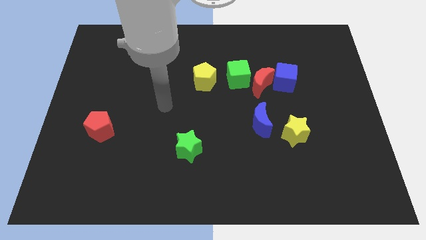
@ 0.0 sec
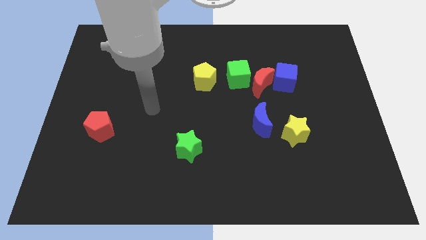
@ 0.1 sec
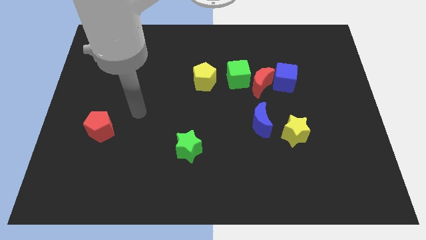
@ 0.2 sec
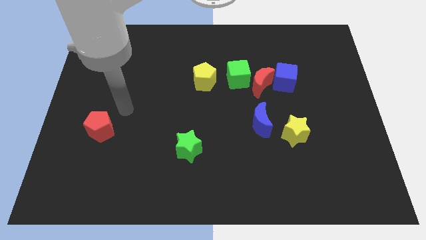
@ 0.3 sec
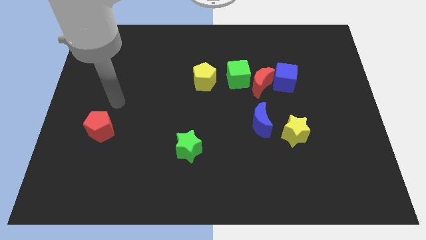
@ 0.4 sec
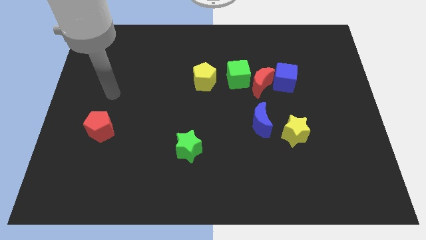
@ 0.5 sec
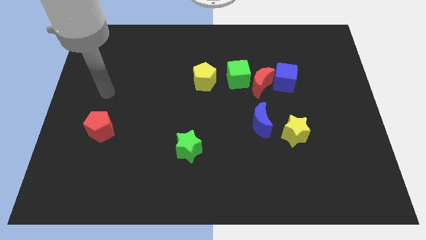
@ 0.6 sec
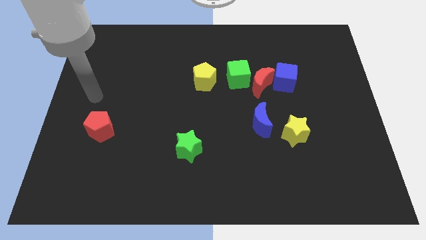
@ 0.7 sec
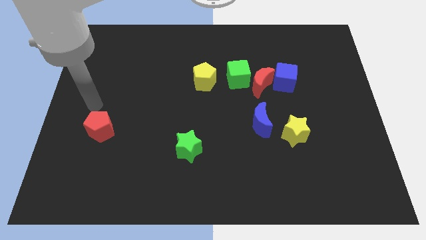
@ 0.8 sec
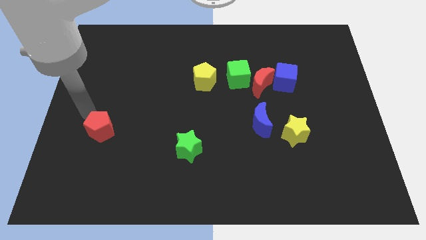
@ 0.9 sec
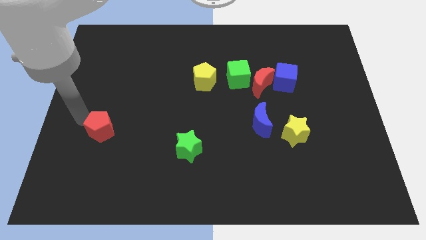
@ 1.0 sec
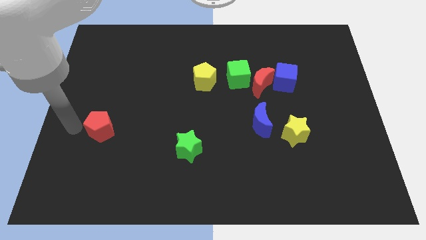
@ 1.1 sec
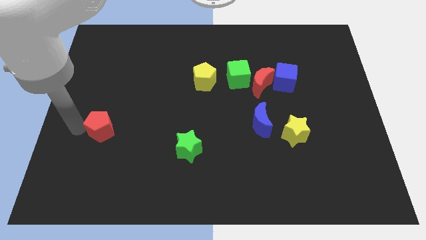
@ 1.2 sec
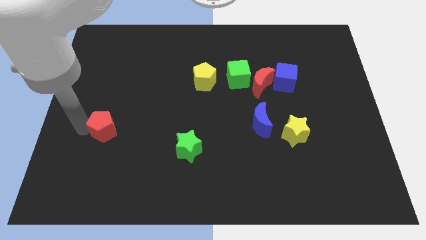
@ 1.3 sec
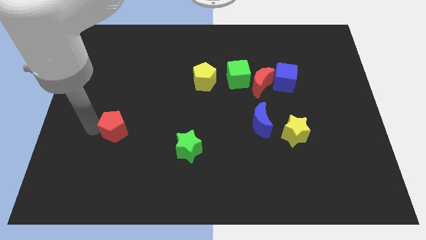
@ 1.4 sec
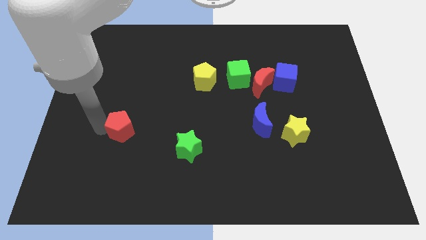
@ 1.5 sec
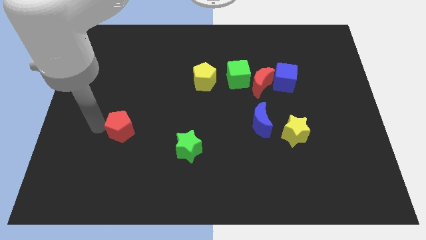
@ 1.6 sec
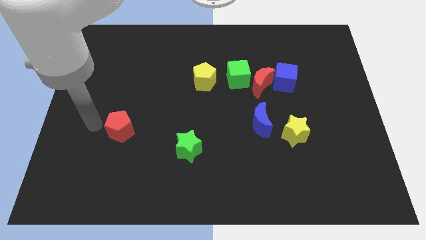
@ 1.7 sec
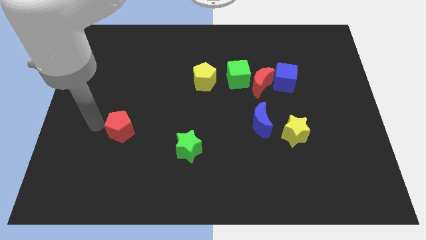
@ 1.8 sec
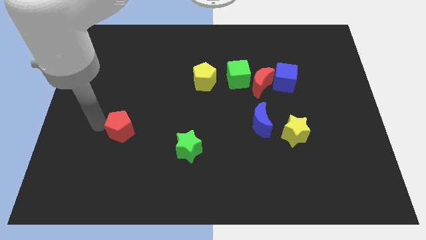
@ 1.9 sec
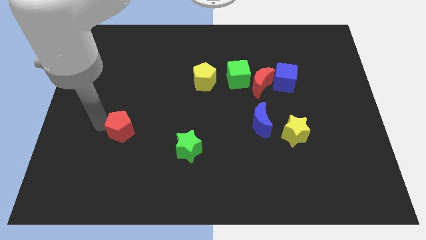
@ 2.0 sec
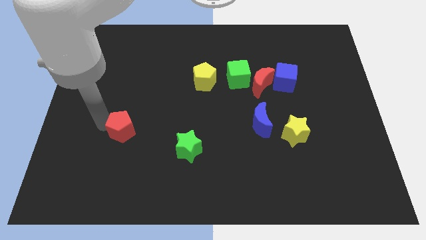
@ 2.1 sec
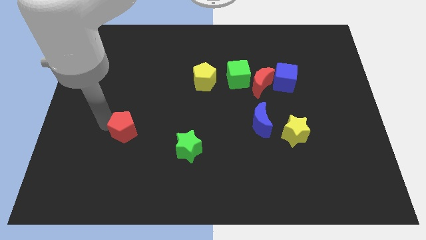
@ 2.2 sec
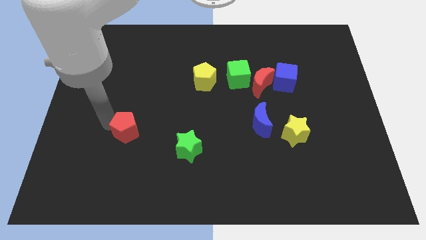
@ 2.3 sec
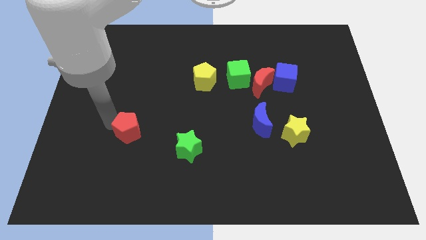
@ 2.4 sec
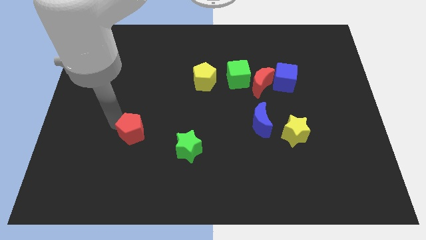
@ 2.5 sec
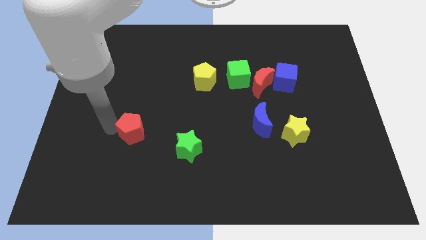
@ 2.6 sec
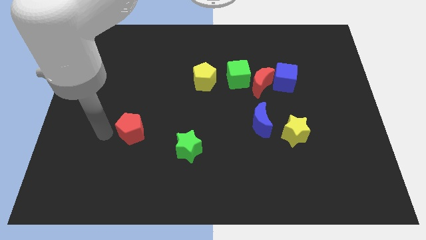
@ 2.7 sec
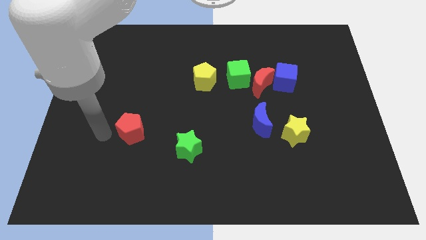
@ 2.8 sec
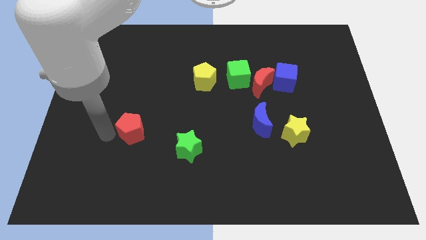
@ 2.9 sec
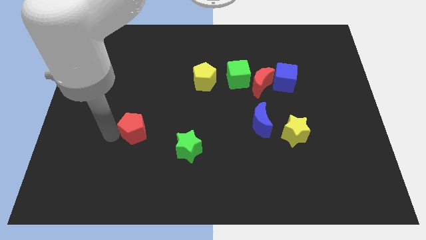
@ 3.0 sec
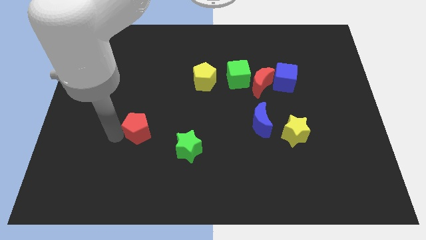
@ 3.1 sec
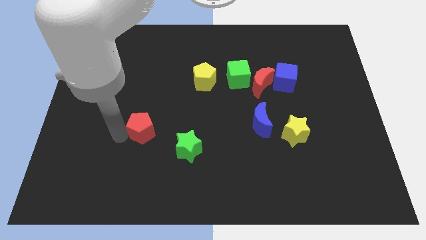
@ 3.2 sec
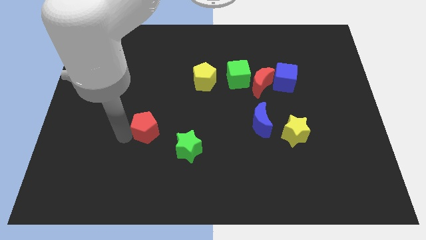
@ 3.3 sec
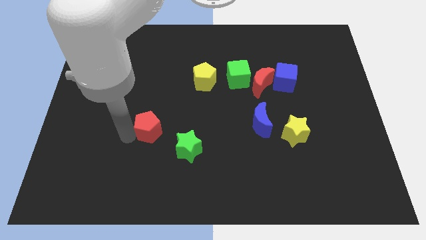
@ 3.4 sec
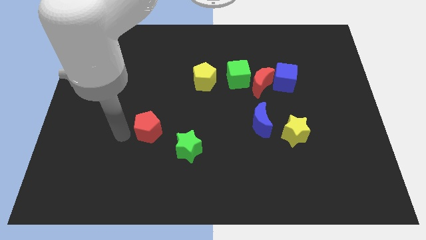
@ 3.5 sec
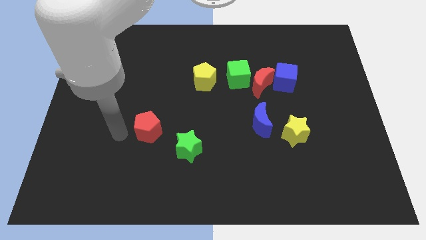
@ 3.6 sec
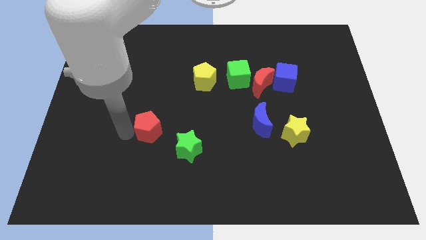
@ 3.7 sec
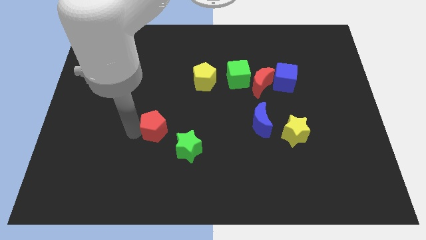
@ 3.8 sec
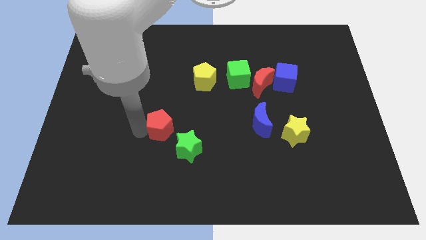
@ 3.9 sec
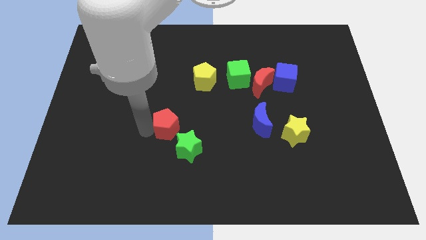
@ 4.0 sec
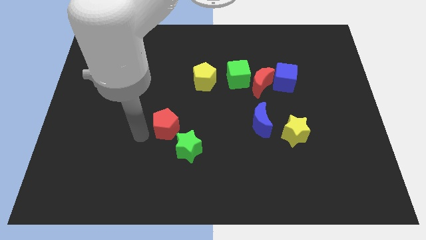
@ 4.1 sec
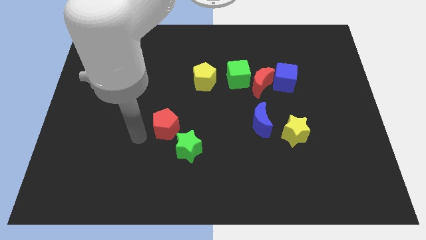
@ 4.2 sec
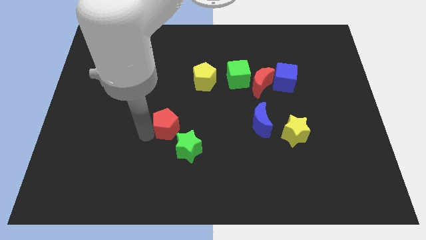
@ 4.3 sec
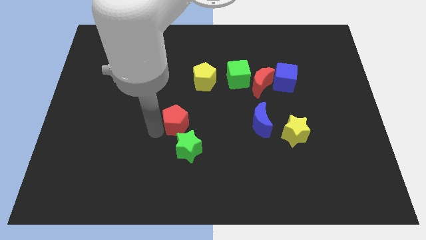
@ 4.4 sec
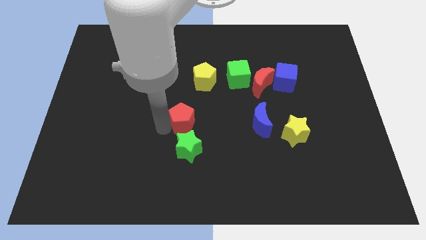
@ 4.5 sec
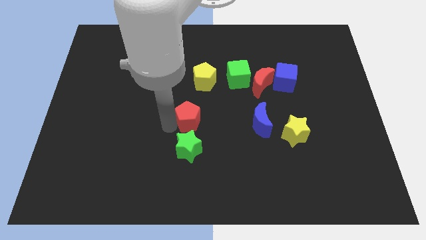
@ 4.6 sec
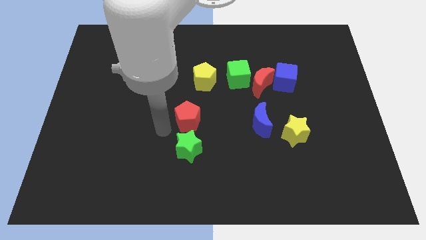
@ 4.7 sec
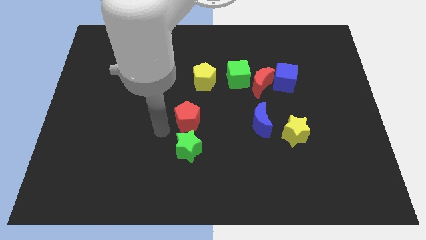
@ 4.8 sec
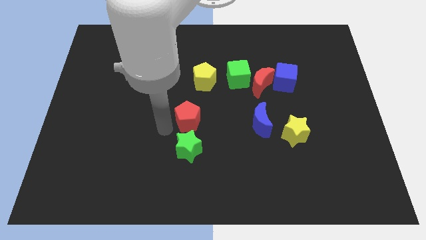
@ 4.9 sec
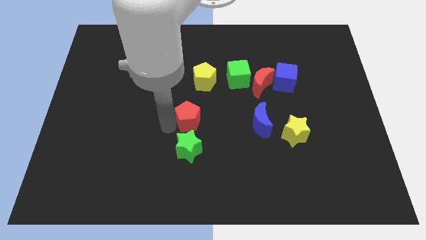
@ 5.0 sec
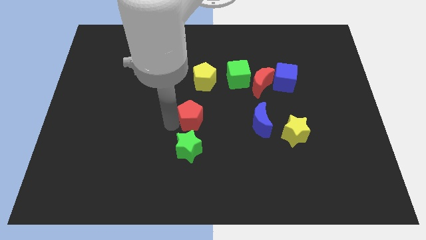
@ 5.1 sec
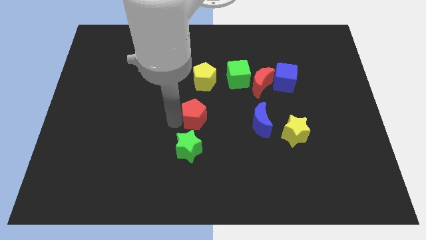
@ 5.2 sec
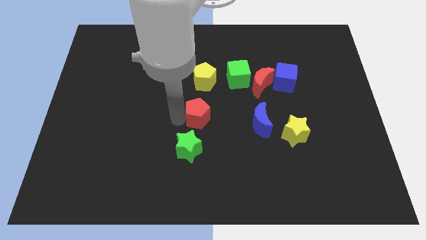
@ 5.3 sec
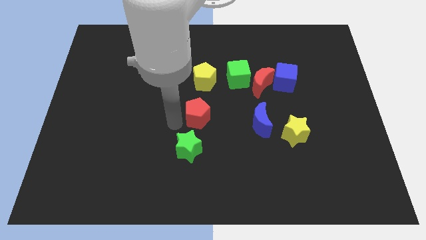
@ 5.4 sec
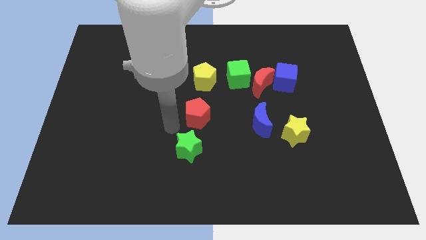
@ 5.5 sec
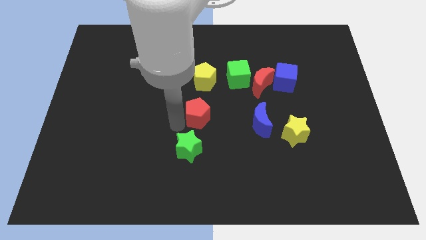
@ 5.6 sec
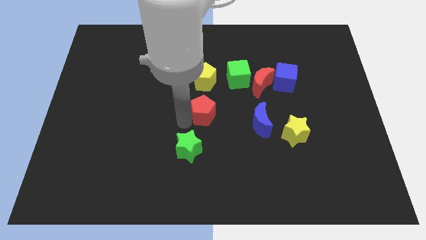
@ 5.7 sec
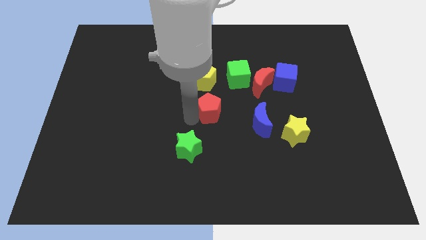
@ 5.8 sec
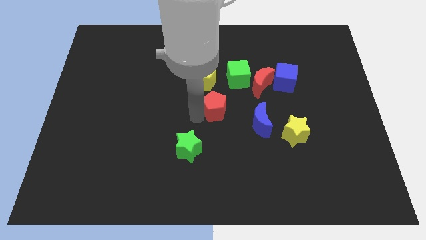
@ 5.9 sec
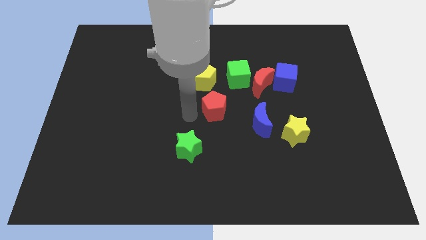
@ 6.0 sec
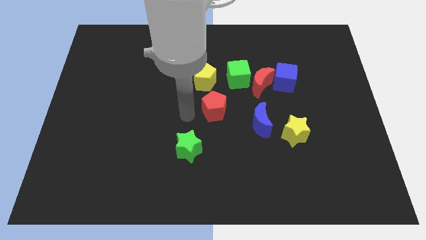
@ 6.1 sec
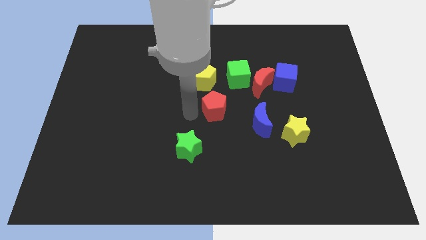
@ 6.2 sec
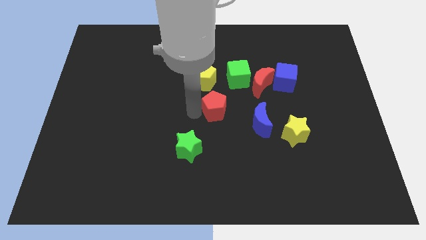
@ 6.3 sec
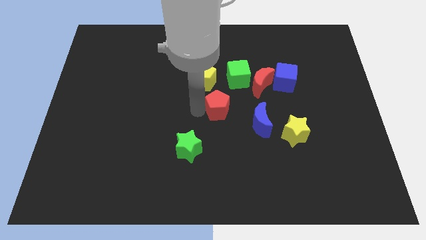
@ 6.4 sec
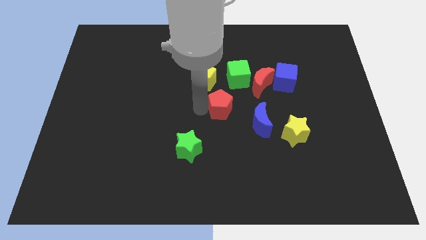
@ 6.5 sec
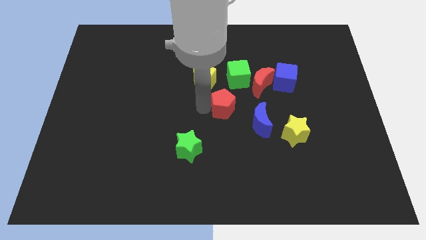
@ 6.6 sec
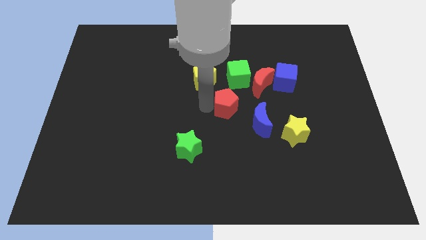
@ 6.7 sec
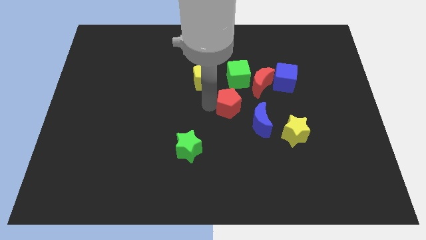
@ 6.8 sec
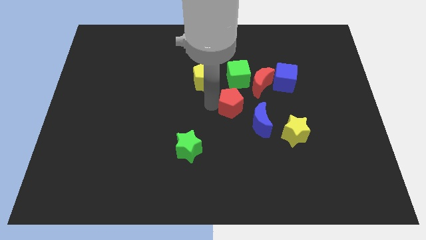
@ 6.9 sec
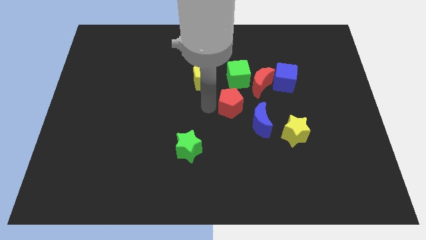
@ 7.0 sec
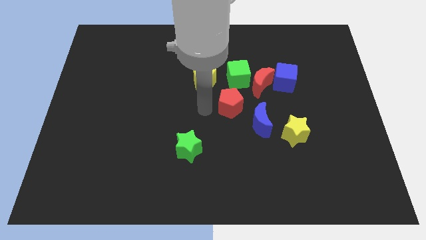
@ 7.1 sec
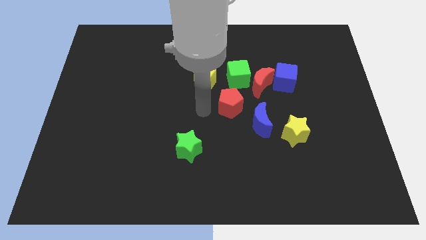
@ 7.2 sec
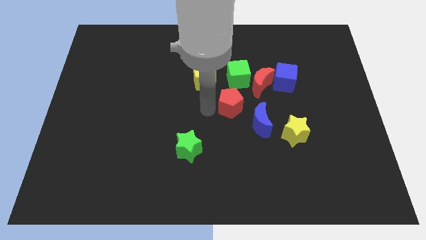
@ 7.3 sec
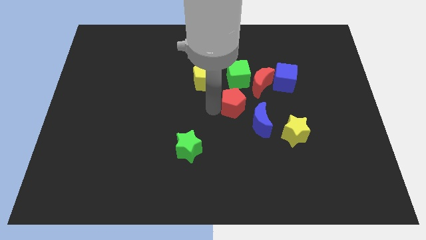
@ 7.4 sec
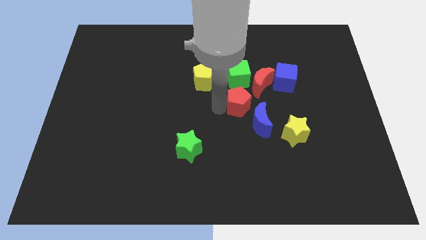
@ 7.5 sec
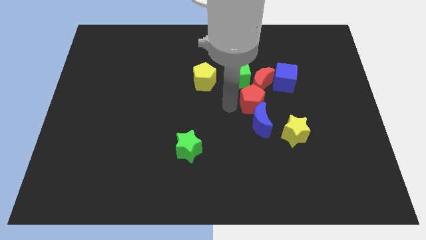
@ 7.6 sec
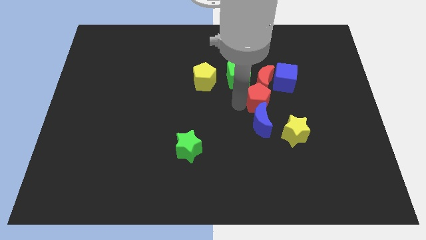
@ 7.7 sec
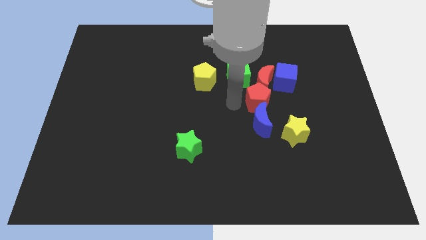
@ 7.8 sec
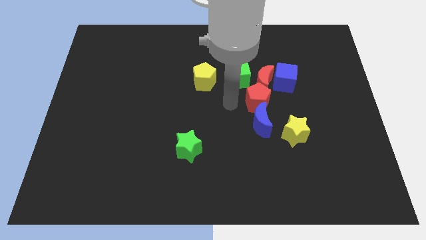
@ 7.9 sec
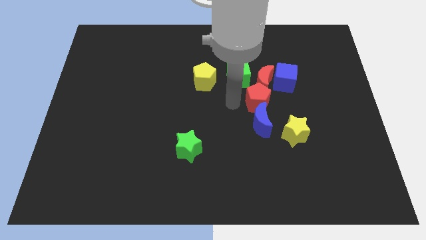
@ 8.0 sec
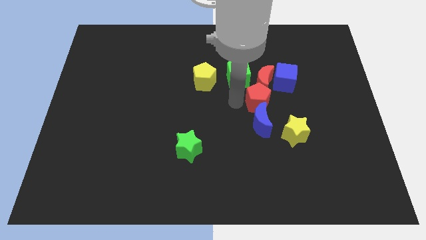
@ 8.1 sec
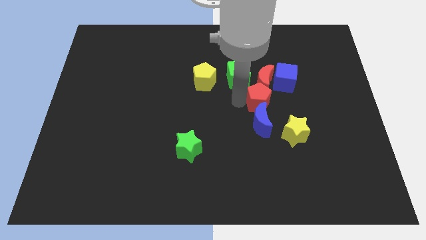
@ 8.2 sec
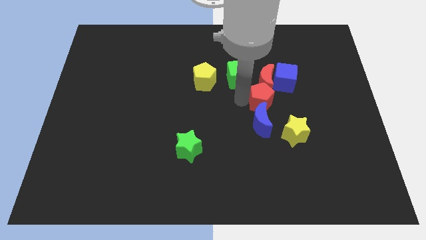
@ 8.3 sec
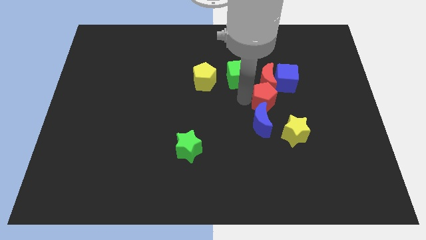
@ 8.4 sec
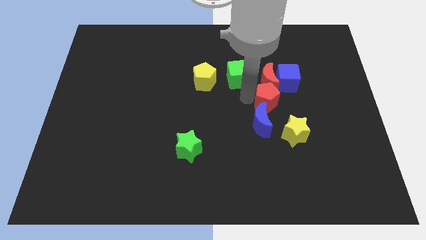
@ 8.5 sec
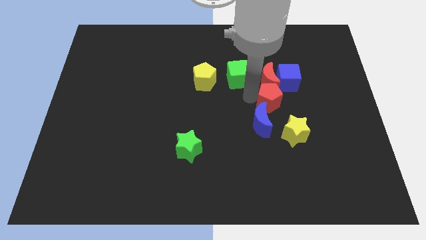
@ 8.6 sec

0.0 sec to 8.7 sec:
push the red pentagon to the top of the yellow star
